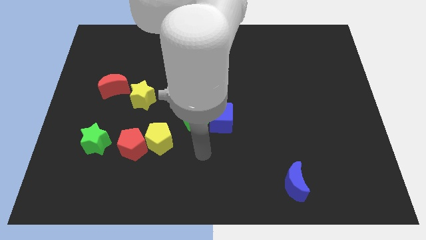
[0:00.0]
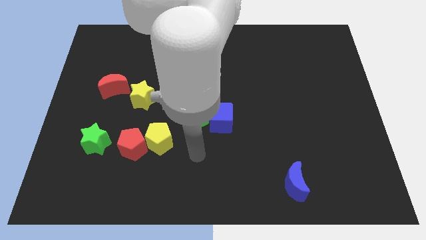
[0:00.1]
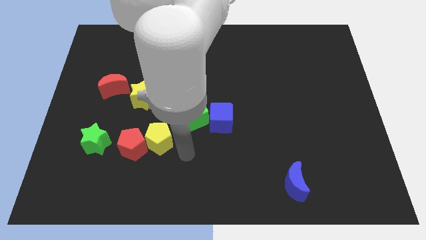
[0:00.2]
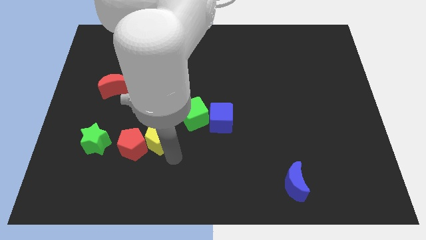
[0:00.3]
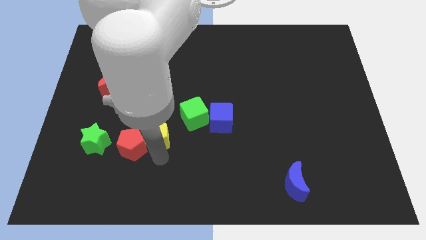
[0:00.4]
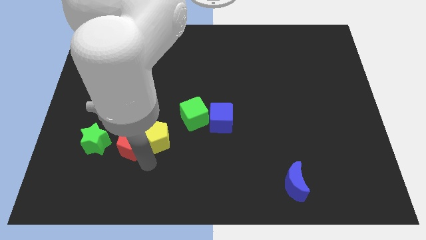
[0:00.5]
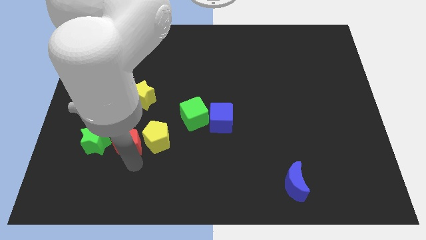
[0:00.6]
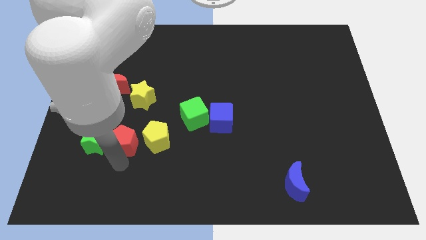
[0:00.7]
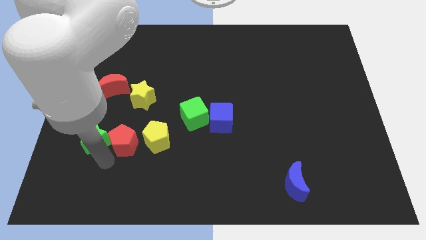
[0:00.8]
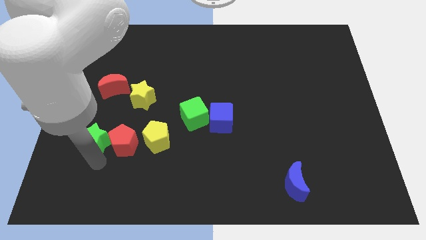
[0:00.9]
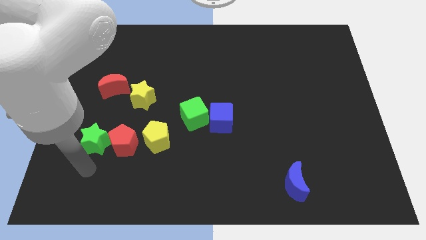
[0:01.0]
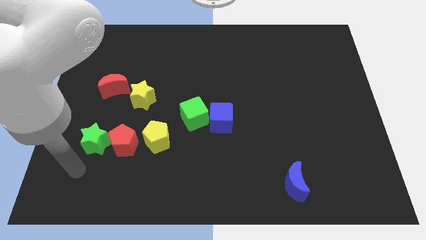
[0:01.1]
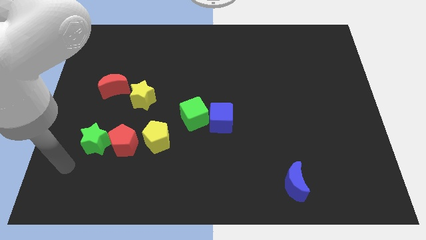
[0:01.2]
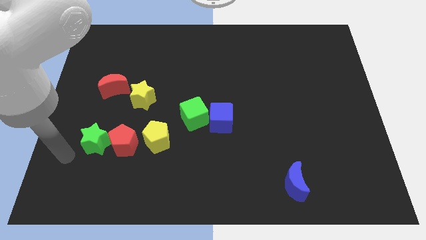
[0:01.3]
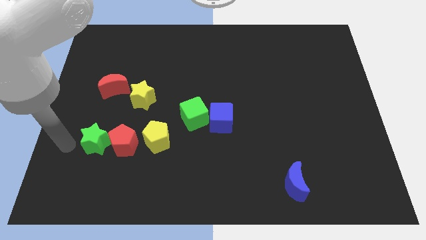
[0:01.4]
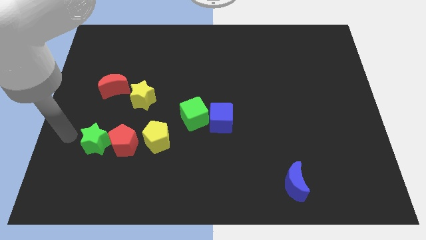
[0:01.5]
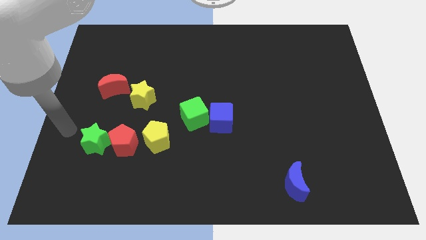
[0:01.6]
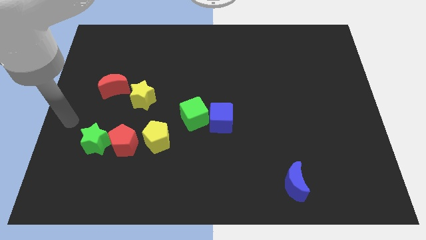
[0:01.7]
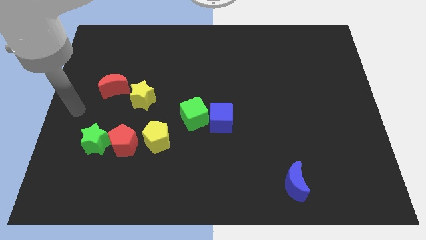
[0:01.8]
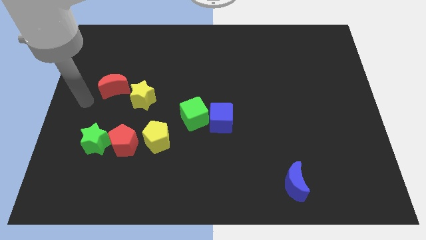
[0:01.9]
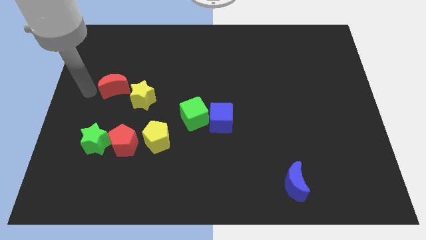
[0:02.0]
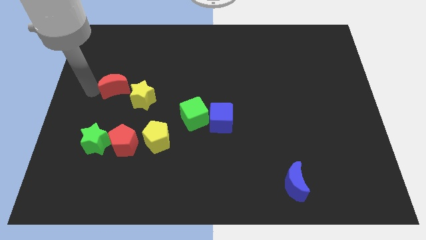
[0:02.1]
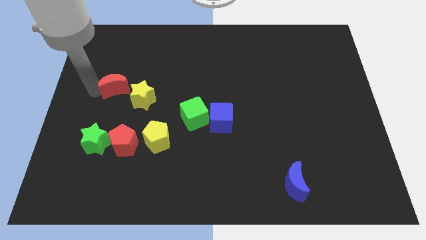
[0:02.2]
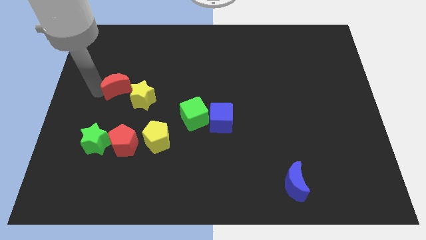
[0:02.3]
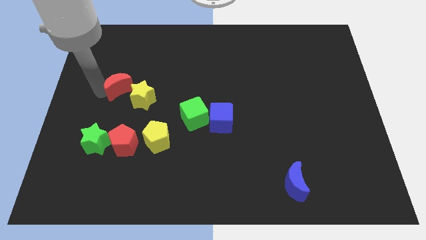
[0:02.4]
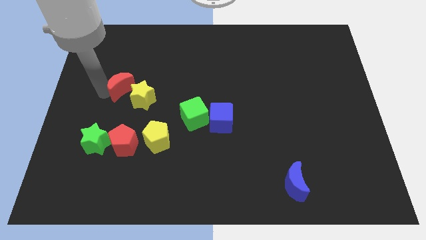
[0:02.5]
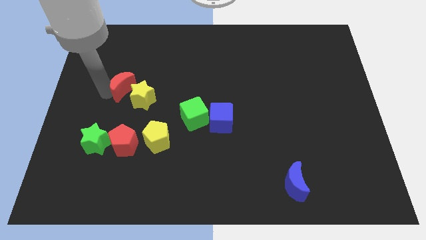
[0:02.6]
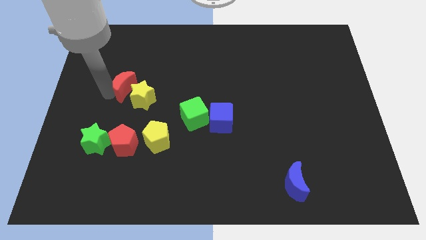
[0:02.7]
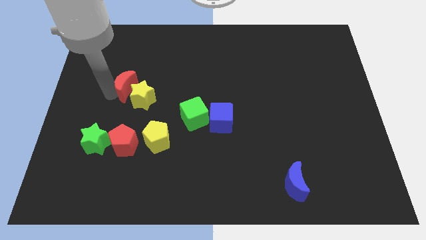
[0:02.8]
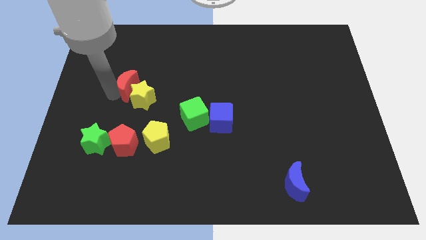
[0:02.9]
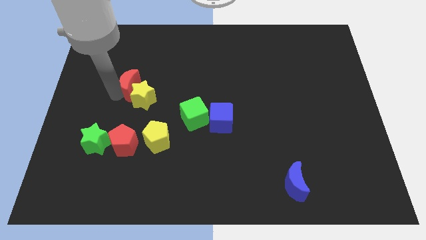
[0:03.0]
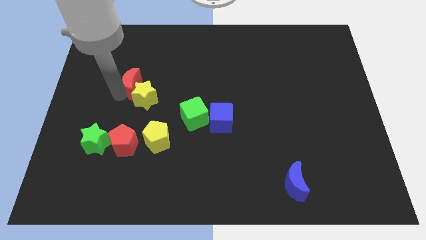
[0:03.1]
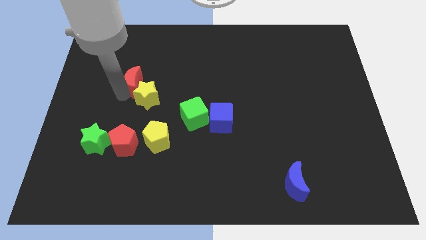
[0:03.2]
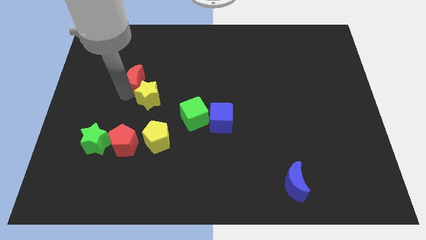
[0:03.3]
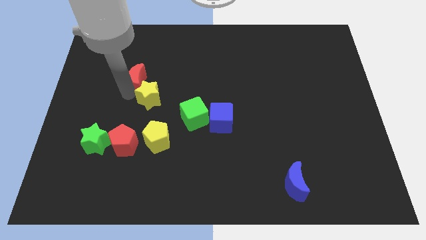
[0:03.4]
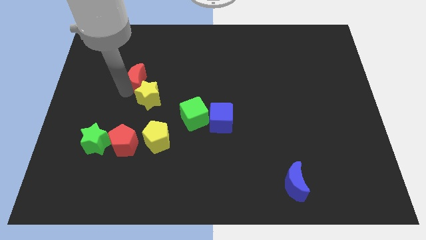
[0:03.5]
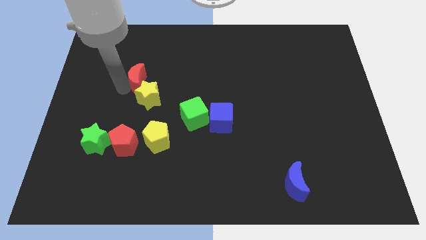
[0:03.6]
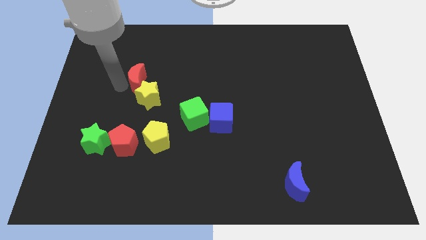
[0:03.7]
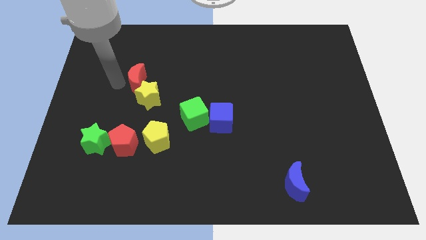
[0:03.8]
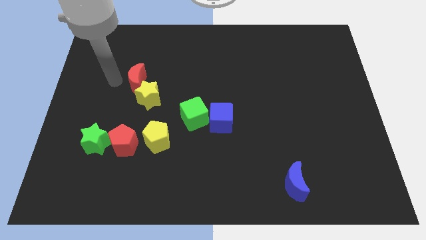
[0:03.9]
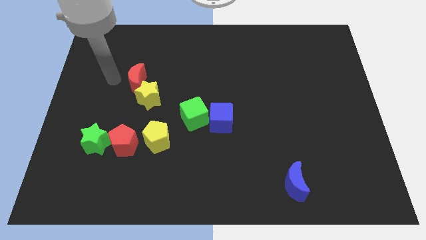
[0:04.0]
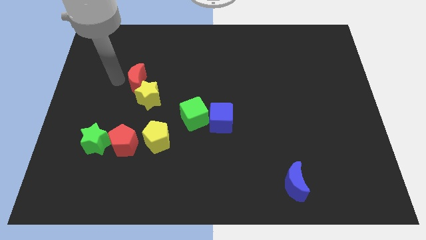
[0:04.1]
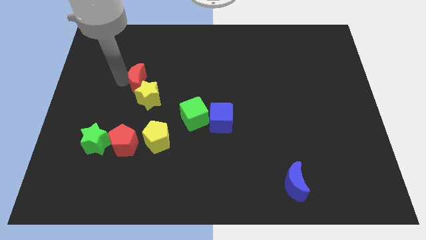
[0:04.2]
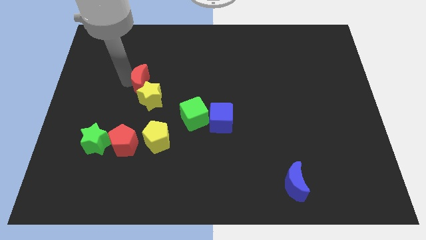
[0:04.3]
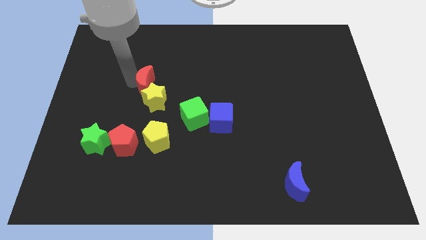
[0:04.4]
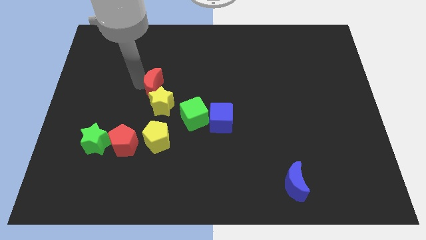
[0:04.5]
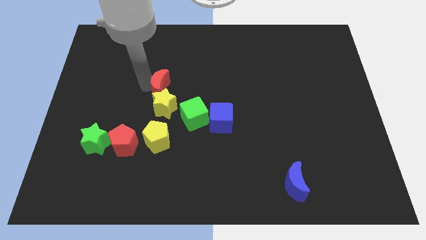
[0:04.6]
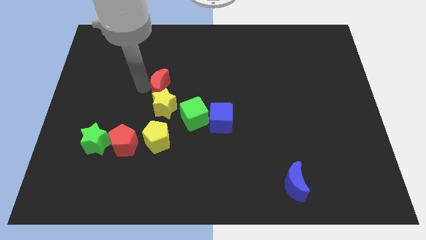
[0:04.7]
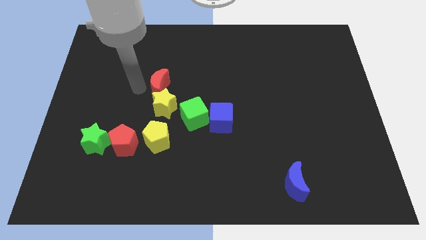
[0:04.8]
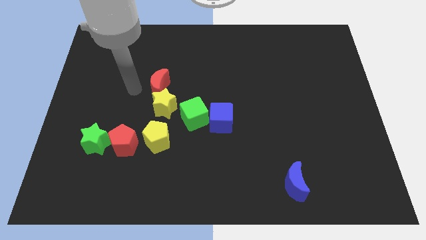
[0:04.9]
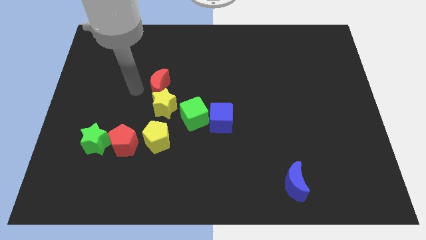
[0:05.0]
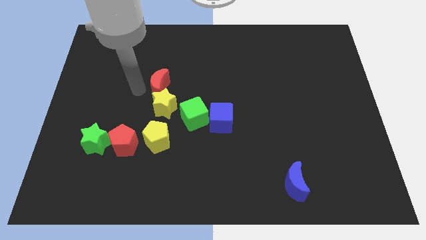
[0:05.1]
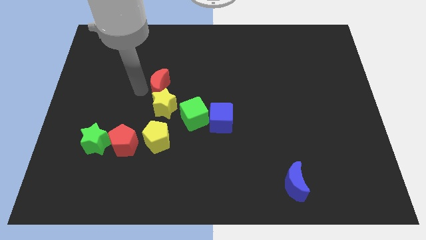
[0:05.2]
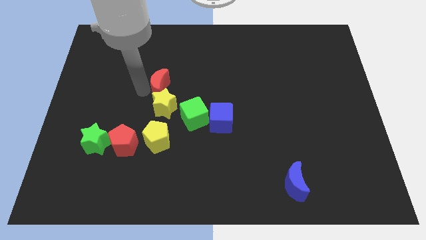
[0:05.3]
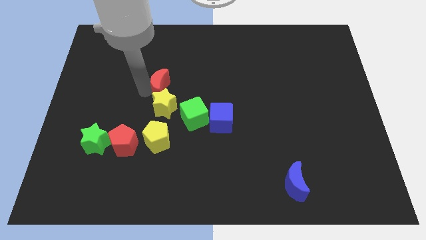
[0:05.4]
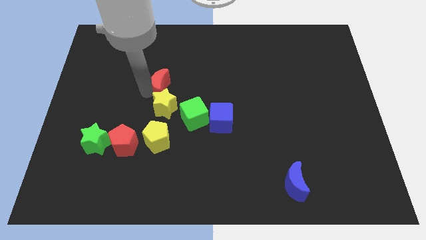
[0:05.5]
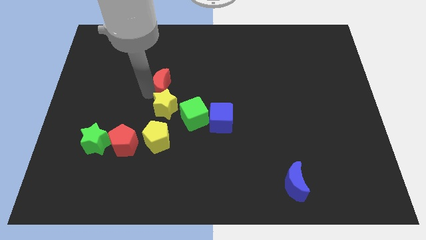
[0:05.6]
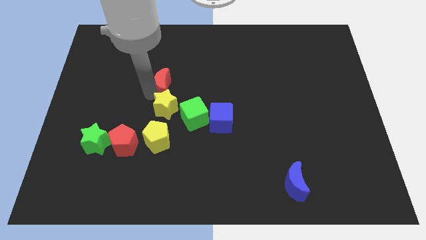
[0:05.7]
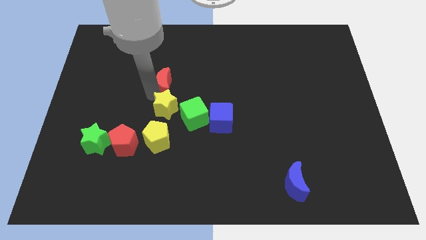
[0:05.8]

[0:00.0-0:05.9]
move the red moon to the middle
